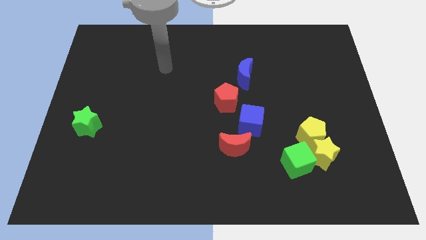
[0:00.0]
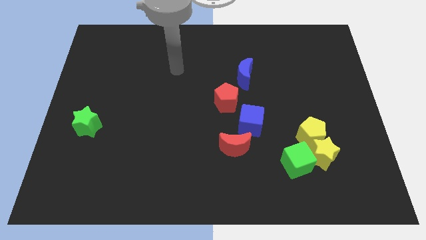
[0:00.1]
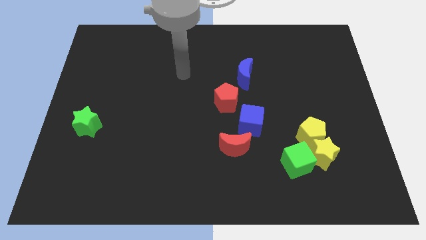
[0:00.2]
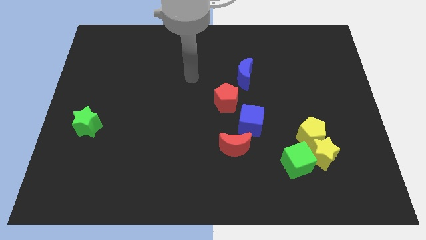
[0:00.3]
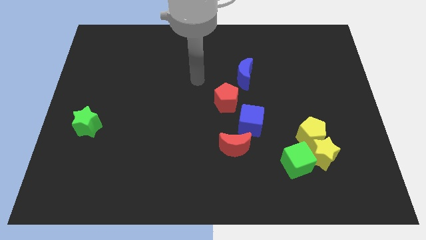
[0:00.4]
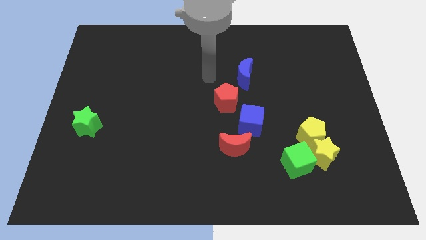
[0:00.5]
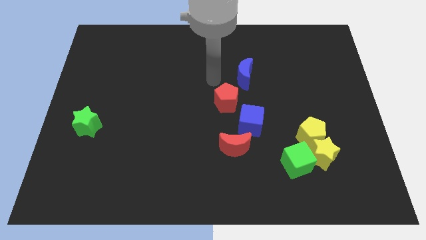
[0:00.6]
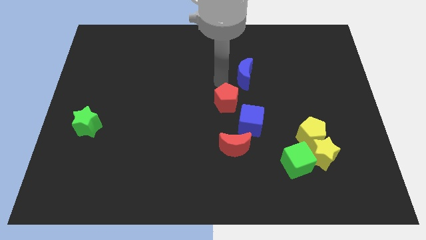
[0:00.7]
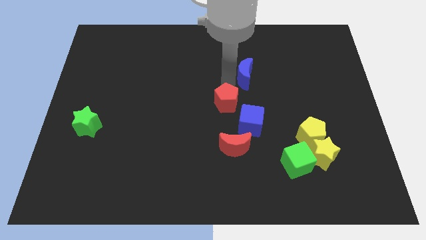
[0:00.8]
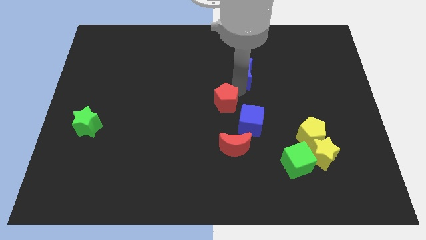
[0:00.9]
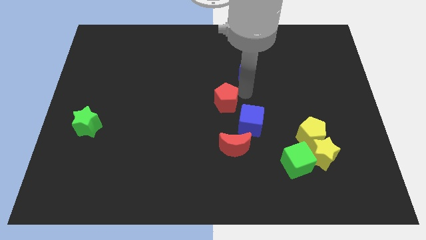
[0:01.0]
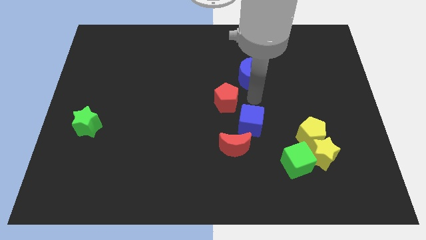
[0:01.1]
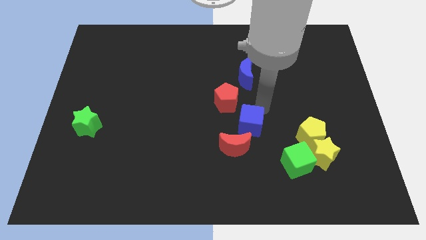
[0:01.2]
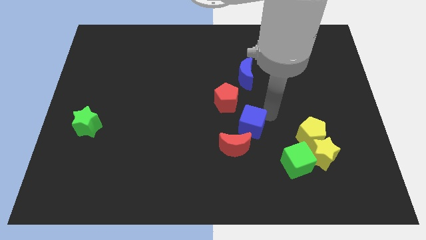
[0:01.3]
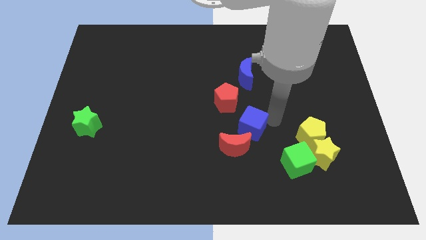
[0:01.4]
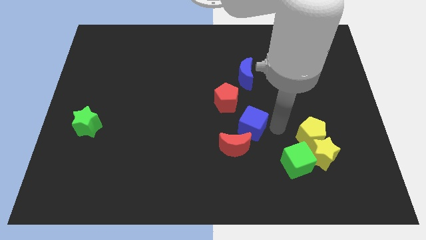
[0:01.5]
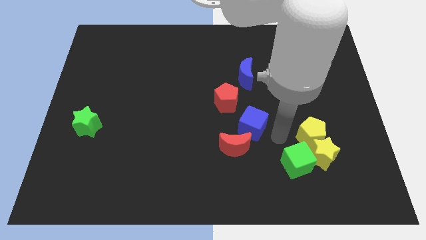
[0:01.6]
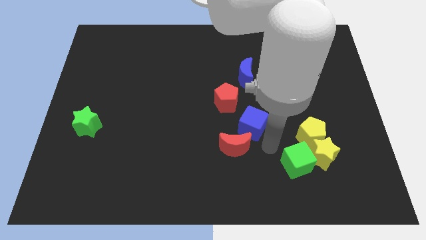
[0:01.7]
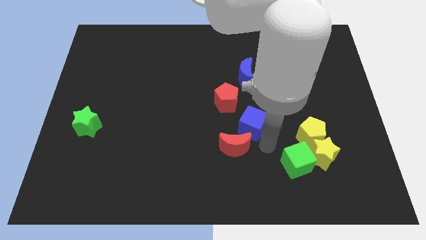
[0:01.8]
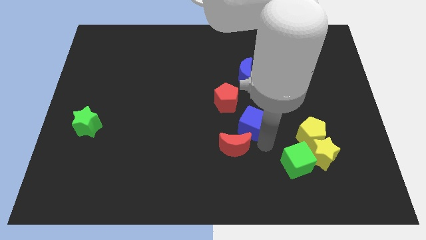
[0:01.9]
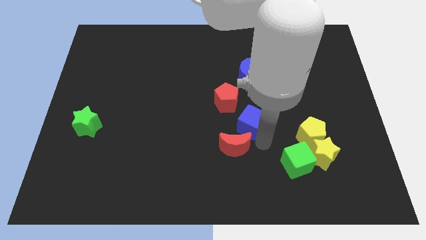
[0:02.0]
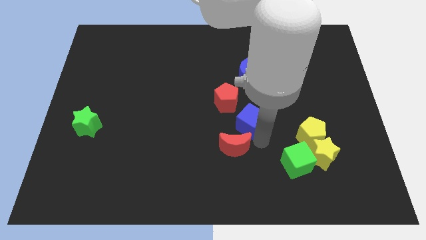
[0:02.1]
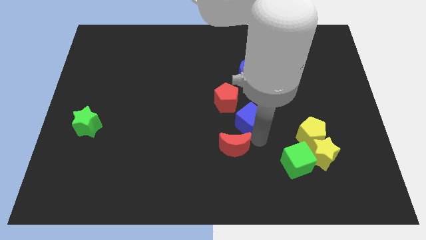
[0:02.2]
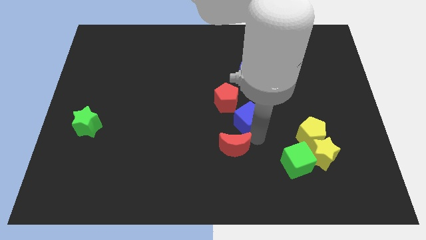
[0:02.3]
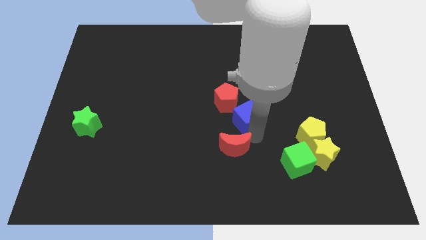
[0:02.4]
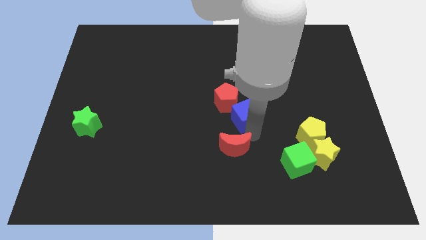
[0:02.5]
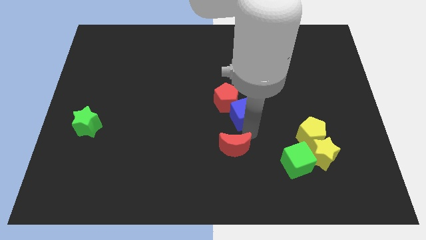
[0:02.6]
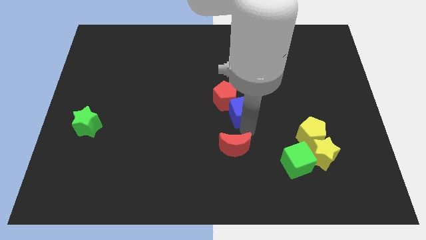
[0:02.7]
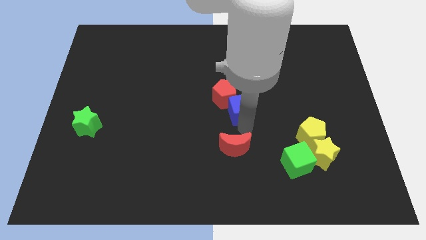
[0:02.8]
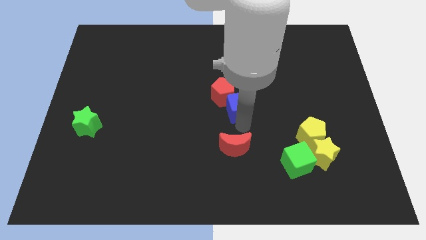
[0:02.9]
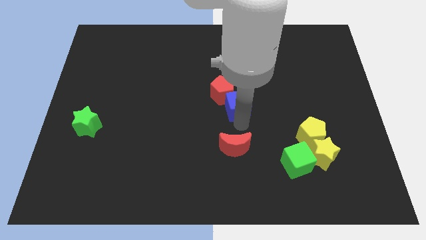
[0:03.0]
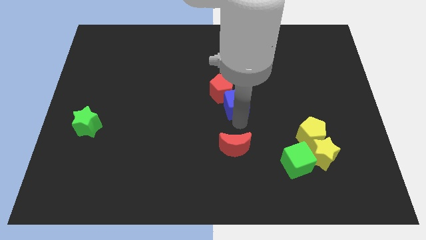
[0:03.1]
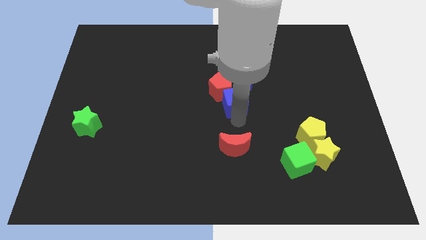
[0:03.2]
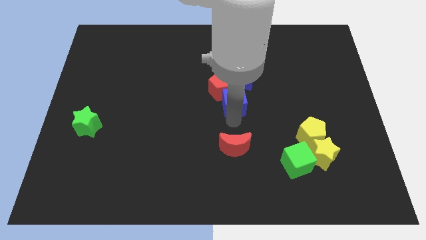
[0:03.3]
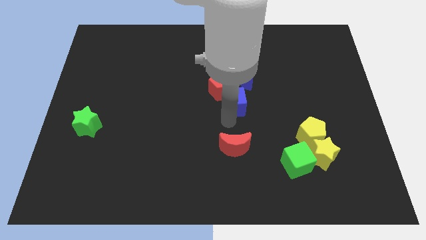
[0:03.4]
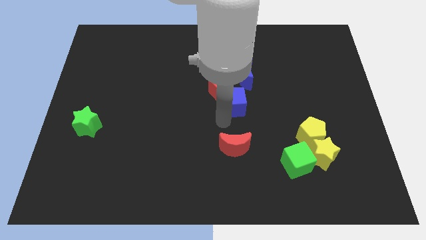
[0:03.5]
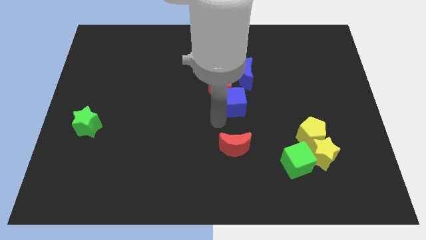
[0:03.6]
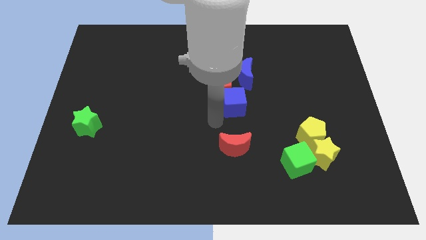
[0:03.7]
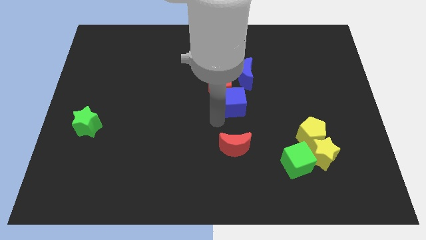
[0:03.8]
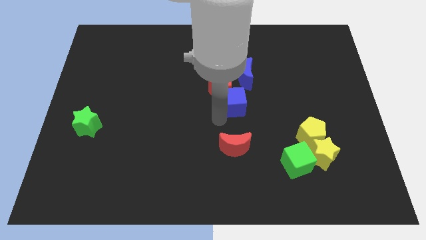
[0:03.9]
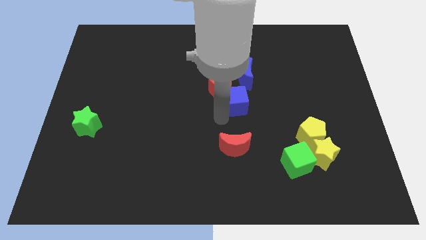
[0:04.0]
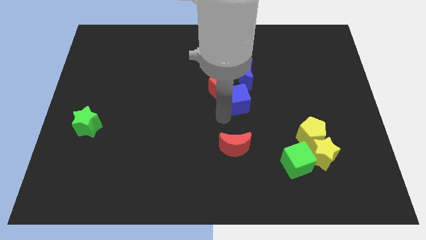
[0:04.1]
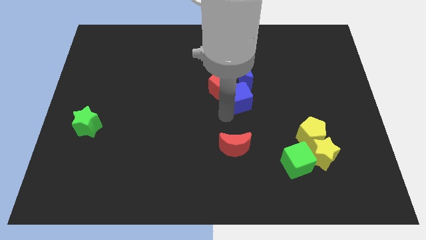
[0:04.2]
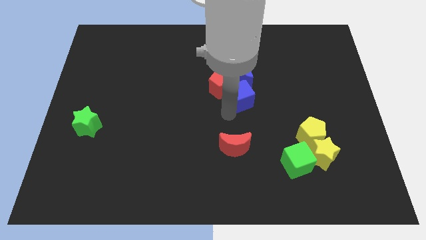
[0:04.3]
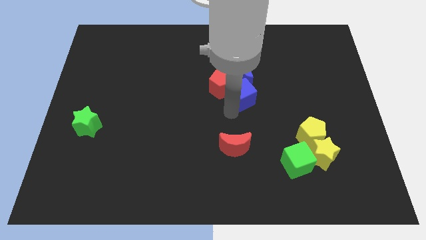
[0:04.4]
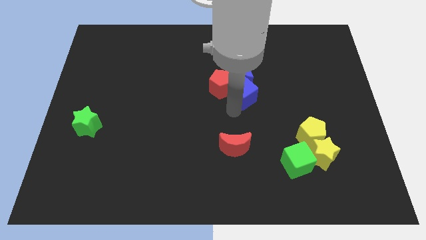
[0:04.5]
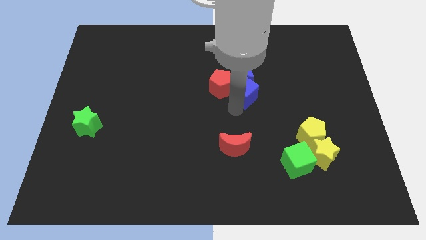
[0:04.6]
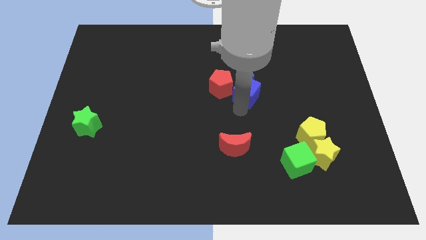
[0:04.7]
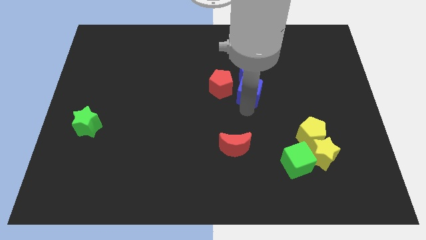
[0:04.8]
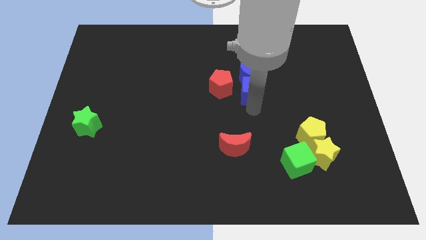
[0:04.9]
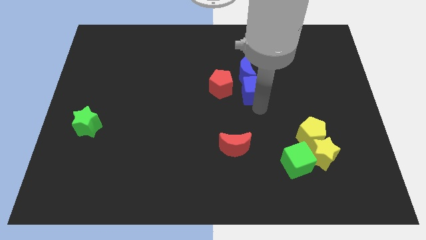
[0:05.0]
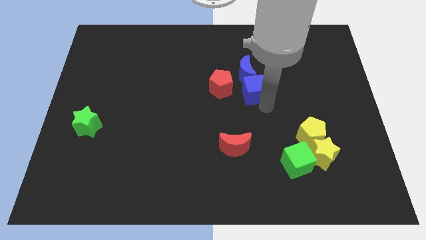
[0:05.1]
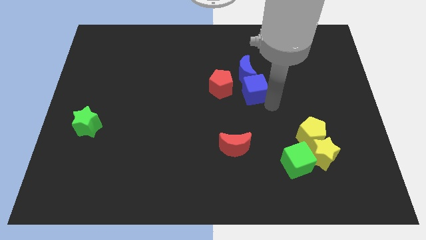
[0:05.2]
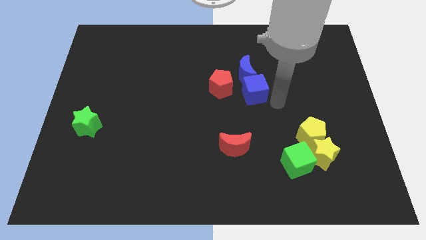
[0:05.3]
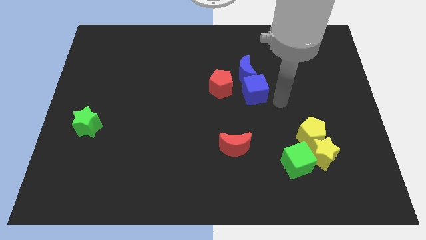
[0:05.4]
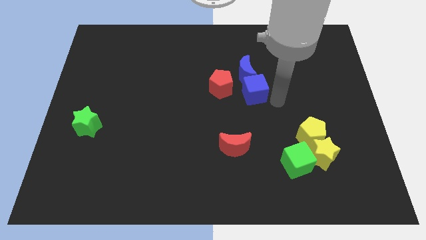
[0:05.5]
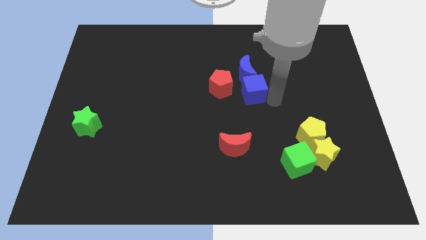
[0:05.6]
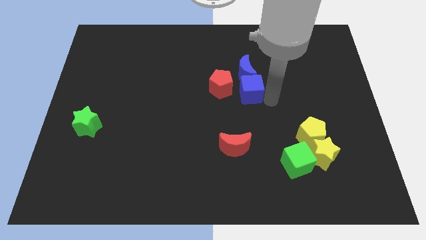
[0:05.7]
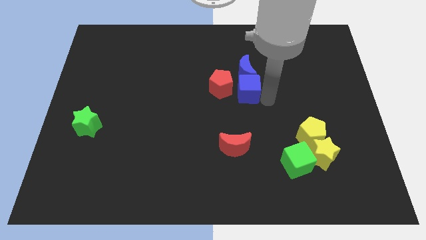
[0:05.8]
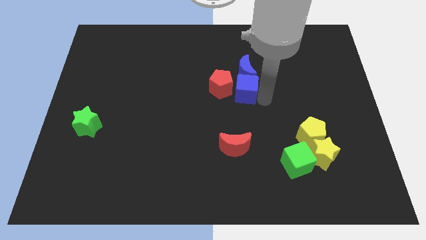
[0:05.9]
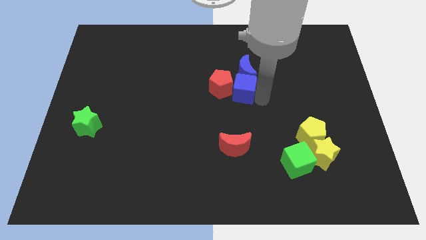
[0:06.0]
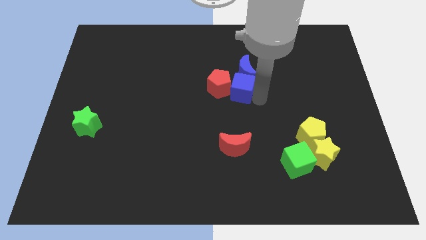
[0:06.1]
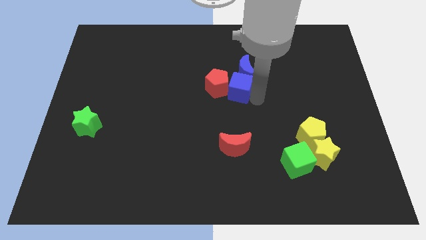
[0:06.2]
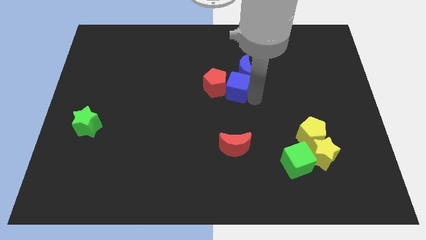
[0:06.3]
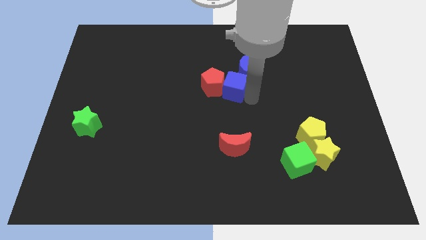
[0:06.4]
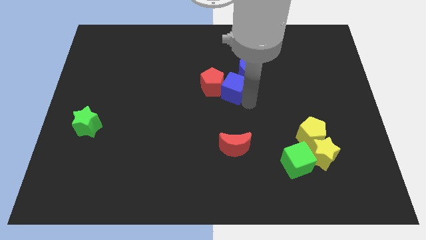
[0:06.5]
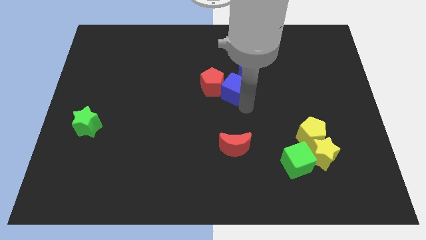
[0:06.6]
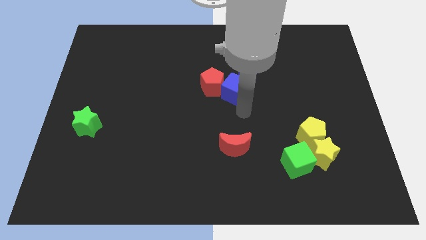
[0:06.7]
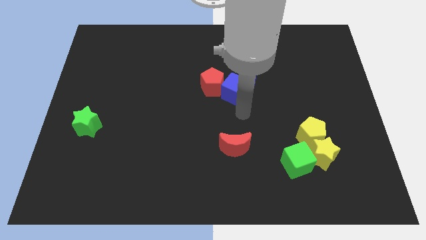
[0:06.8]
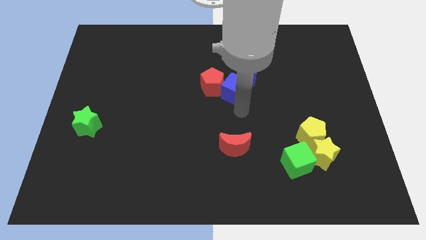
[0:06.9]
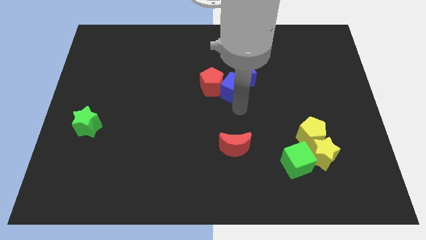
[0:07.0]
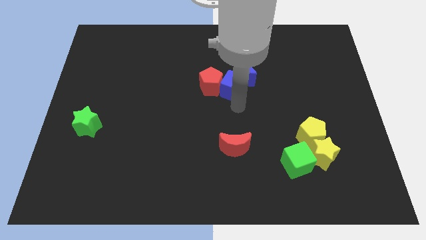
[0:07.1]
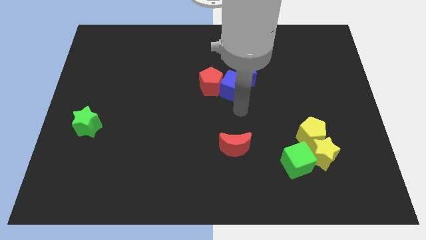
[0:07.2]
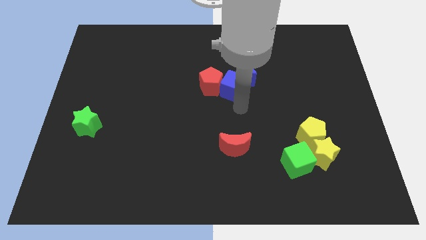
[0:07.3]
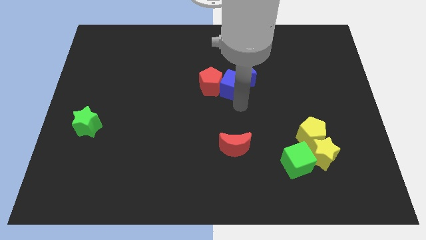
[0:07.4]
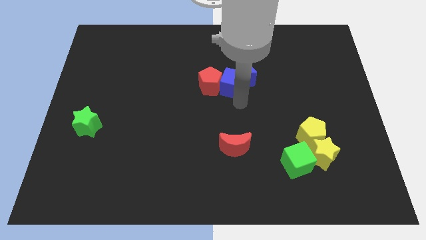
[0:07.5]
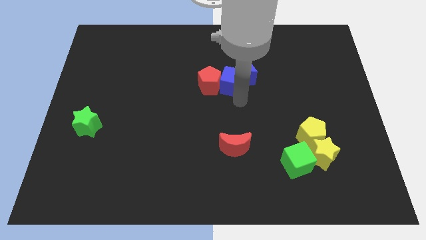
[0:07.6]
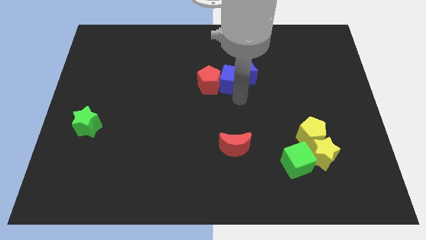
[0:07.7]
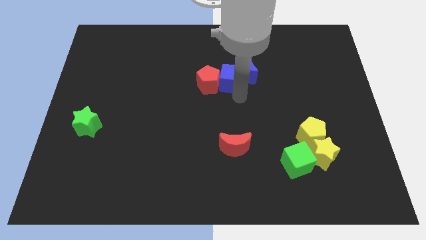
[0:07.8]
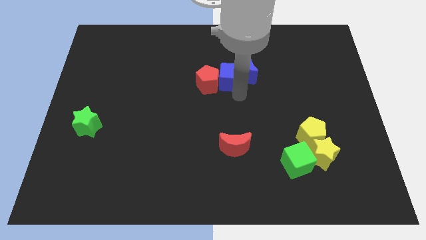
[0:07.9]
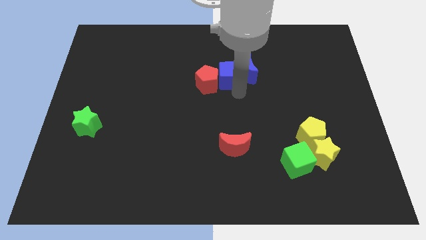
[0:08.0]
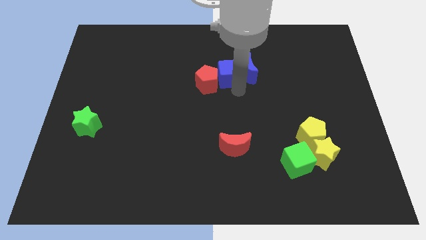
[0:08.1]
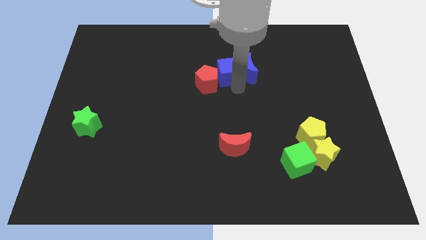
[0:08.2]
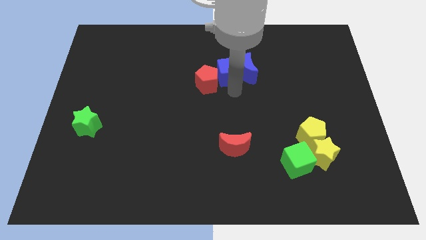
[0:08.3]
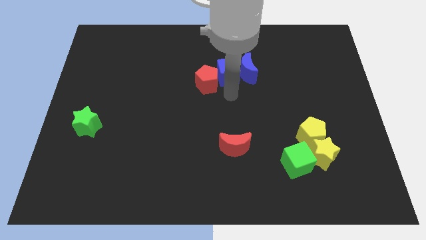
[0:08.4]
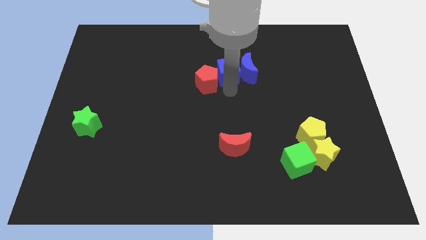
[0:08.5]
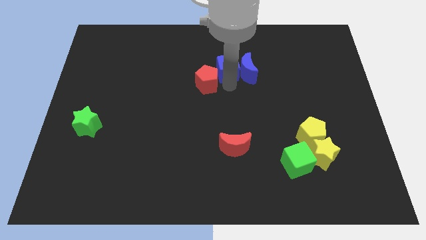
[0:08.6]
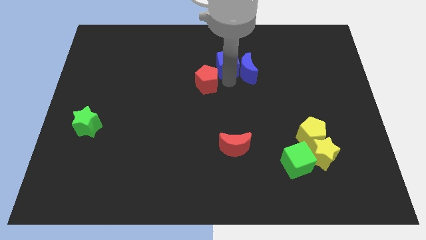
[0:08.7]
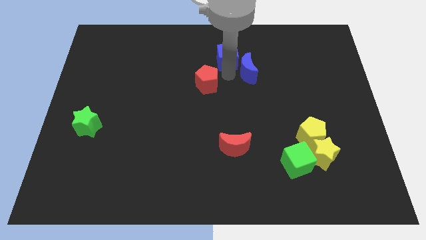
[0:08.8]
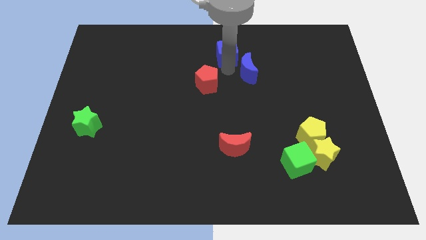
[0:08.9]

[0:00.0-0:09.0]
slide the blue cube to the top
